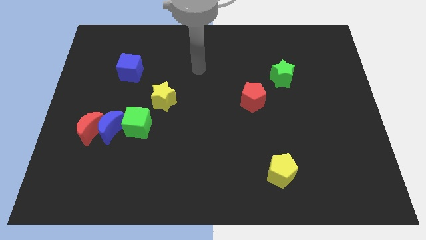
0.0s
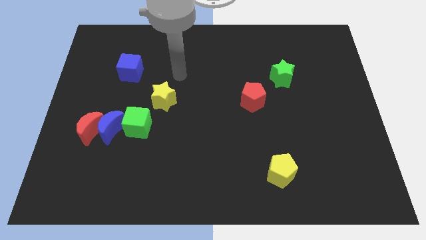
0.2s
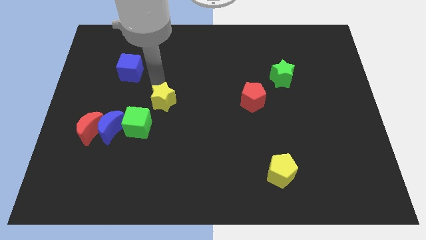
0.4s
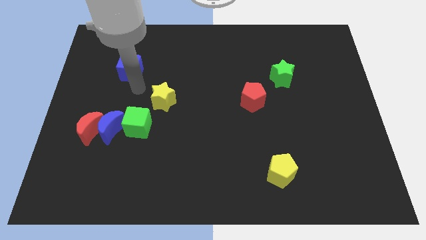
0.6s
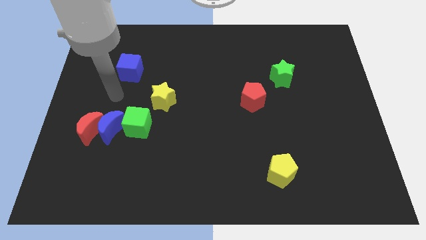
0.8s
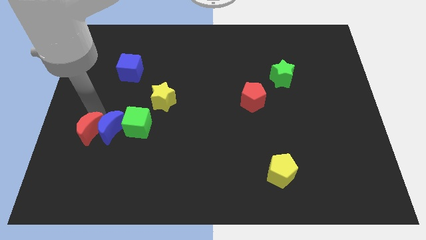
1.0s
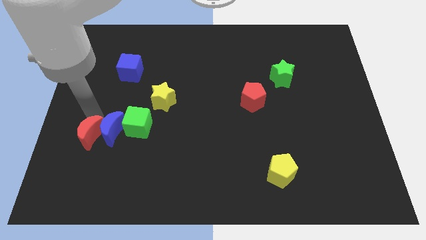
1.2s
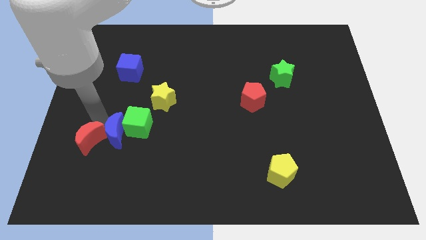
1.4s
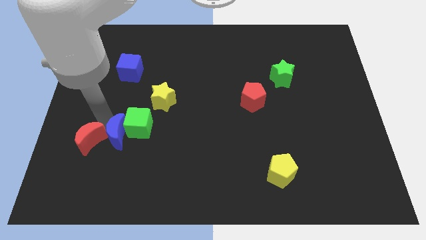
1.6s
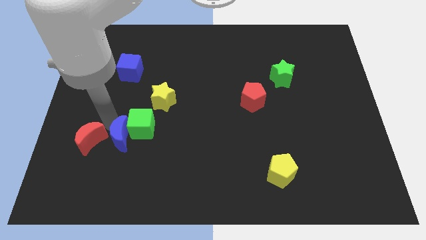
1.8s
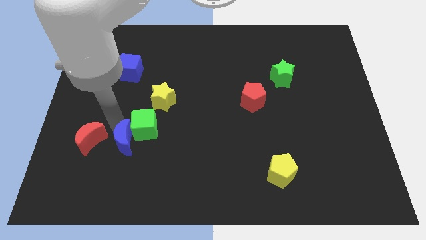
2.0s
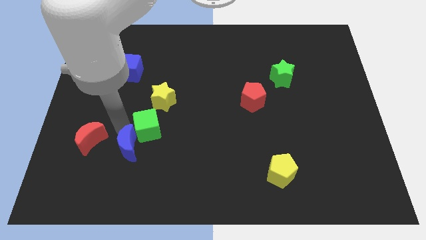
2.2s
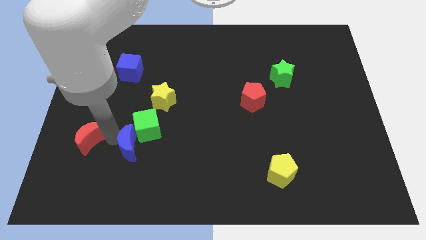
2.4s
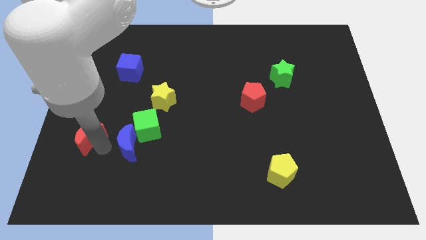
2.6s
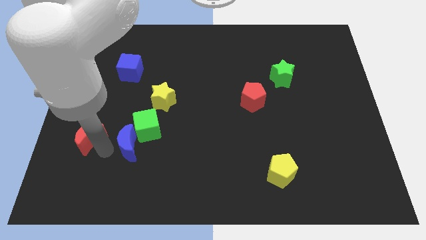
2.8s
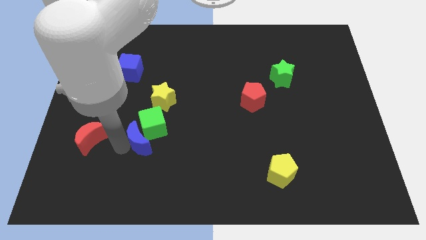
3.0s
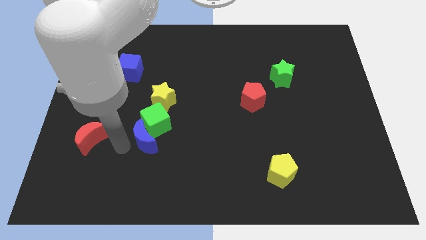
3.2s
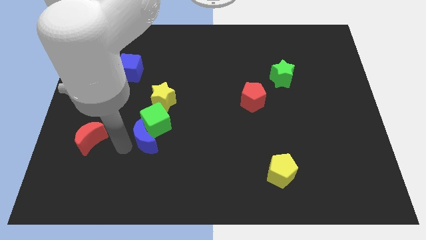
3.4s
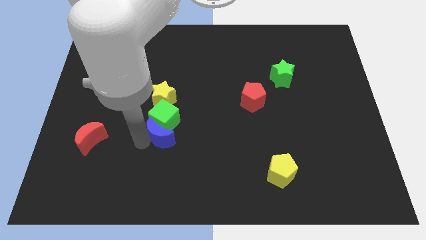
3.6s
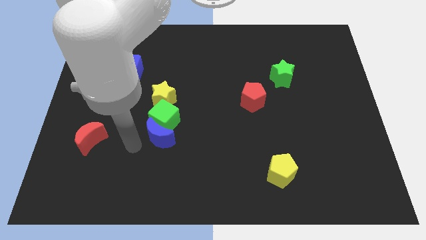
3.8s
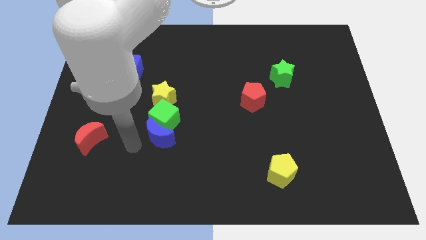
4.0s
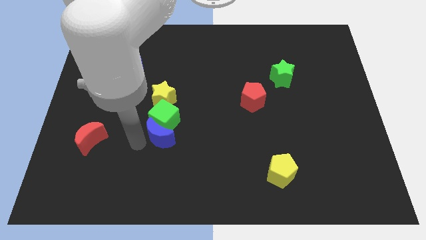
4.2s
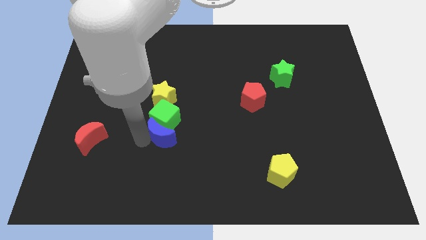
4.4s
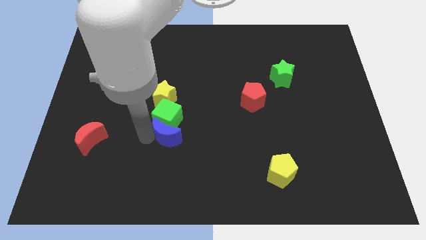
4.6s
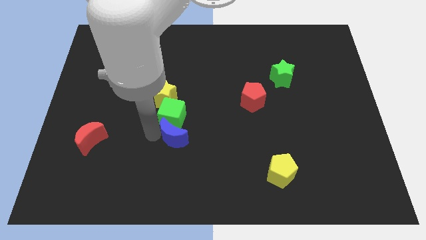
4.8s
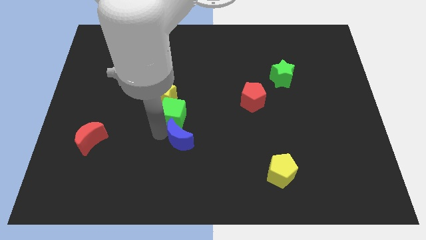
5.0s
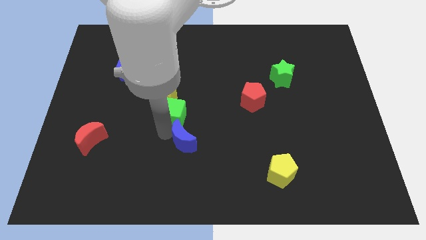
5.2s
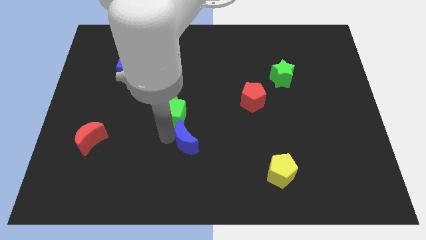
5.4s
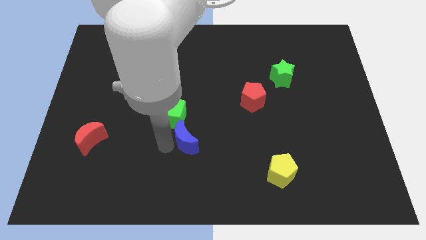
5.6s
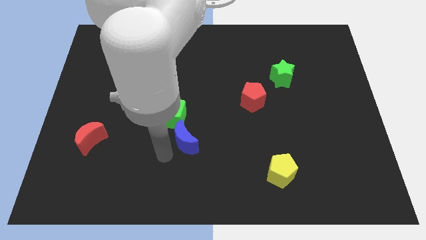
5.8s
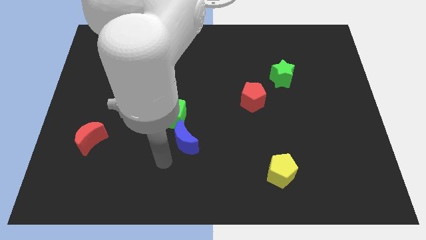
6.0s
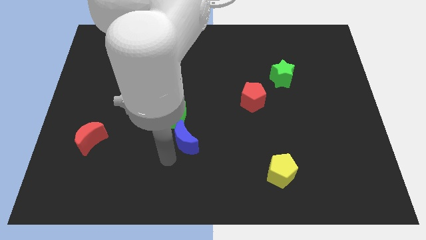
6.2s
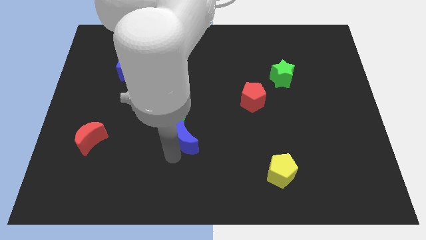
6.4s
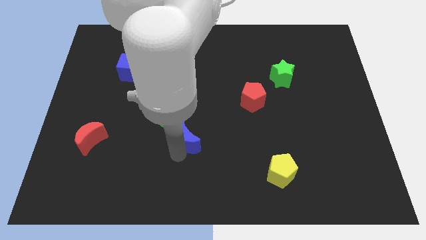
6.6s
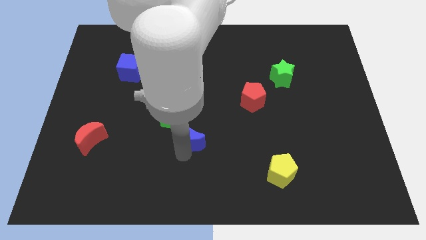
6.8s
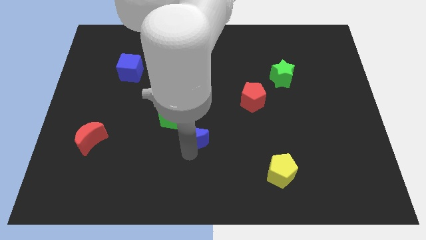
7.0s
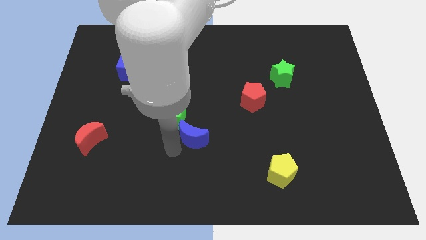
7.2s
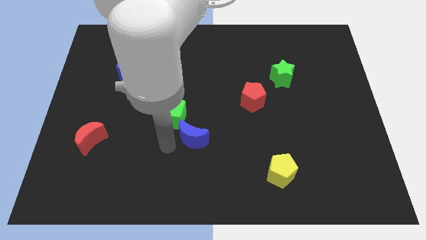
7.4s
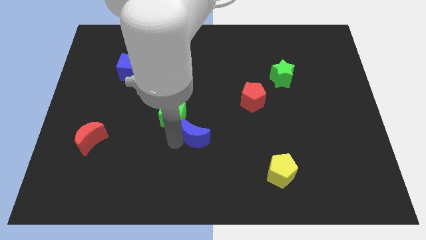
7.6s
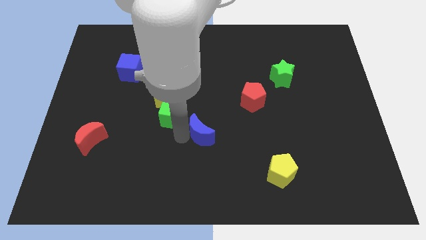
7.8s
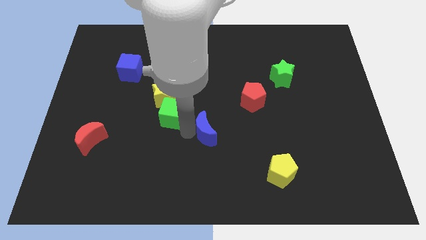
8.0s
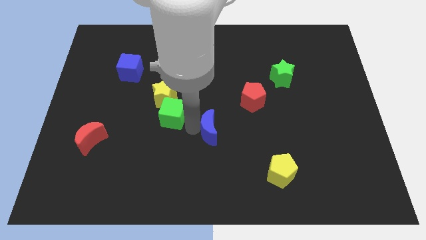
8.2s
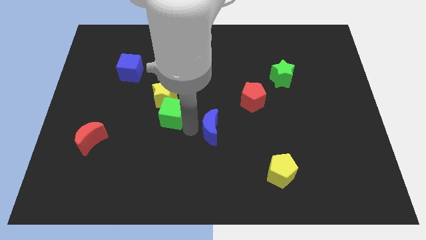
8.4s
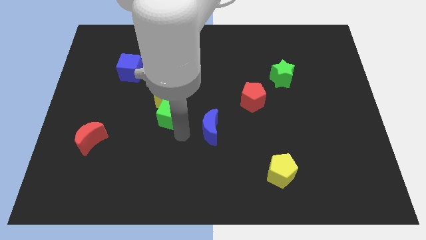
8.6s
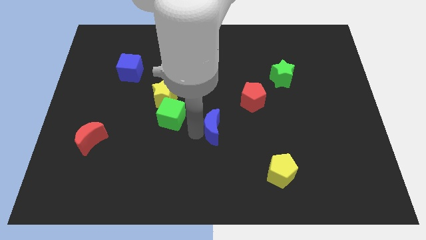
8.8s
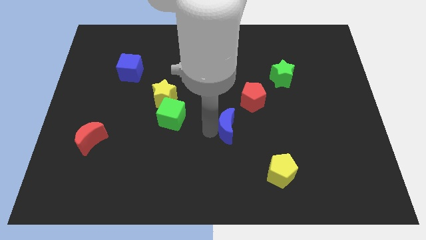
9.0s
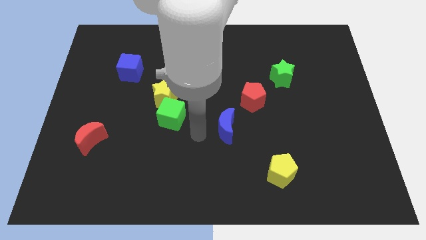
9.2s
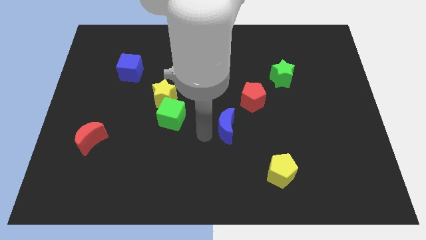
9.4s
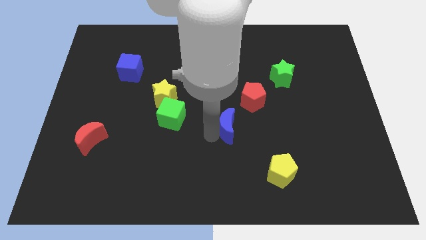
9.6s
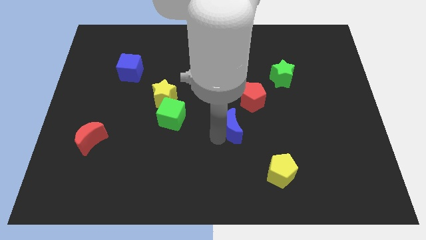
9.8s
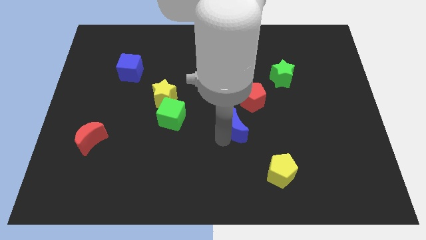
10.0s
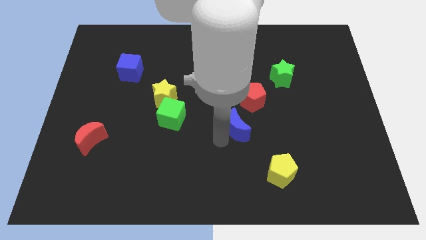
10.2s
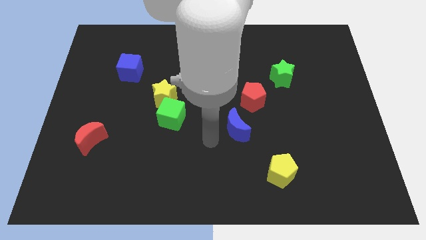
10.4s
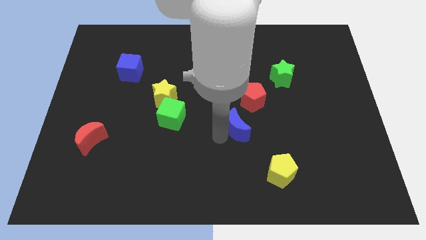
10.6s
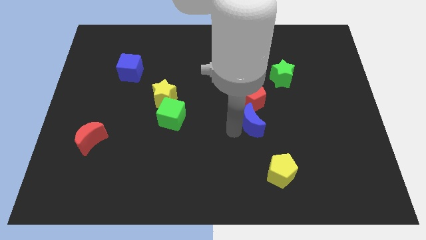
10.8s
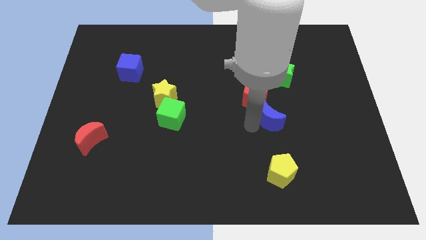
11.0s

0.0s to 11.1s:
move the blue moon to the bottom of the green star

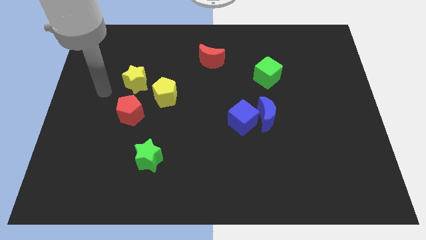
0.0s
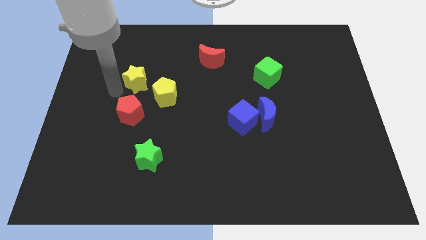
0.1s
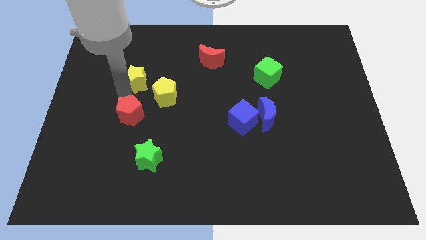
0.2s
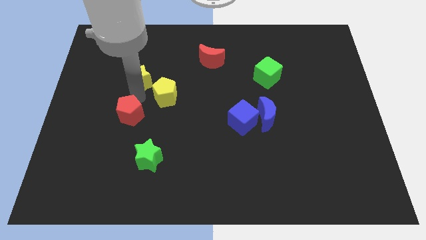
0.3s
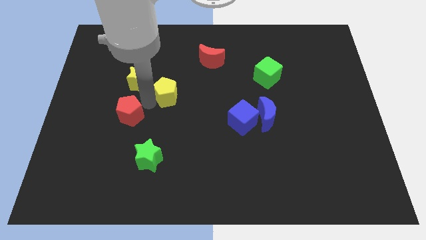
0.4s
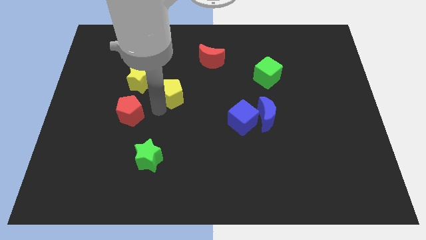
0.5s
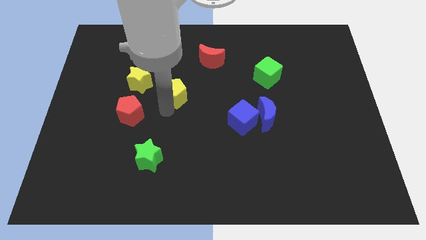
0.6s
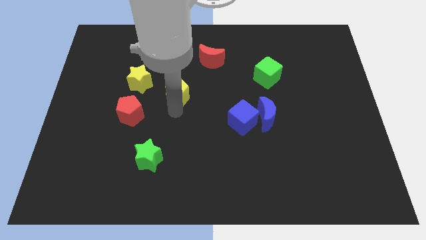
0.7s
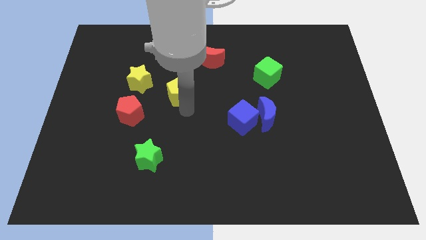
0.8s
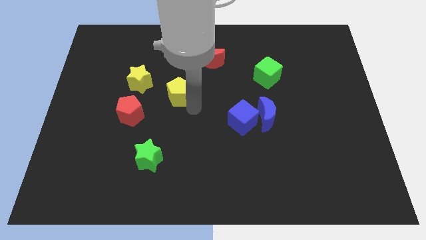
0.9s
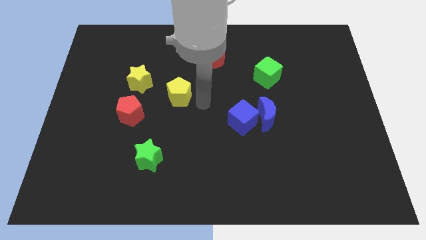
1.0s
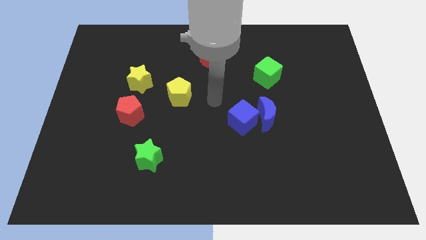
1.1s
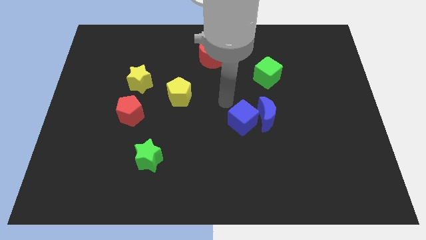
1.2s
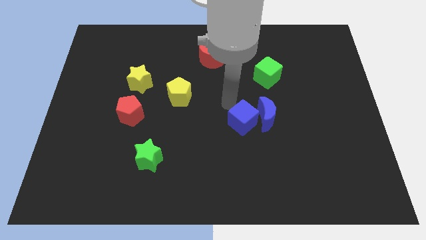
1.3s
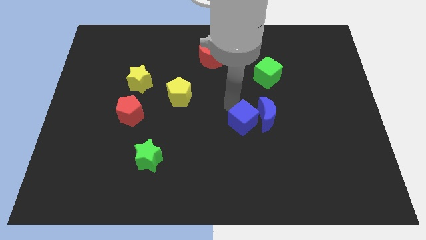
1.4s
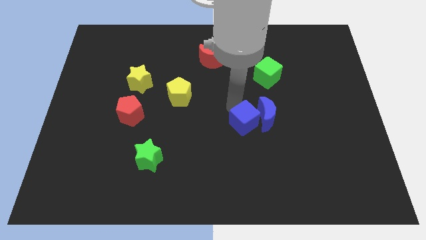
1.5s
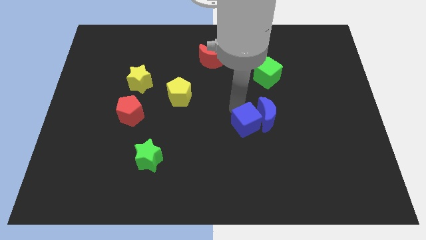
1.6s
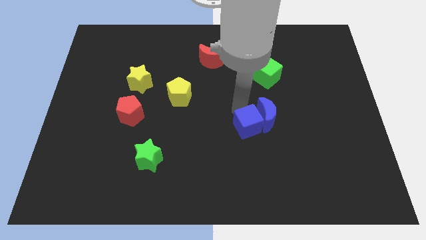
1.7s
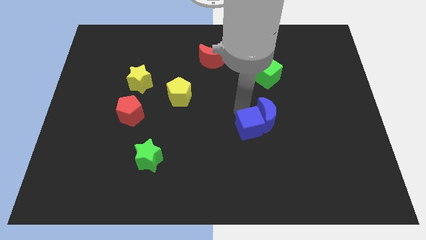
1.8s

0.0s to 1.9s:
move the blue cube to the bottom of the blue moon
